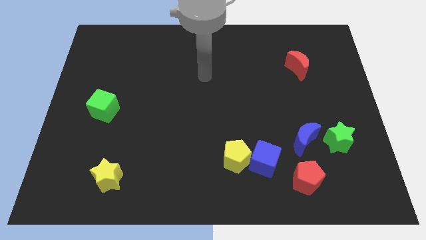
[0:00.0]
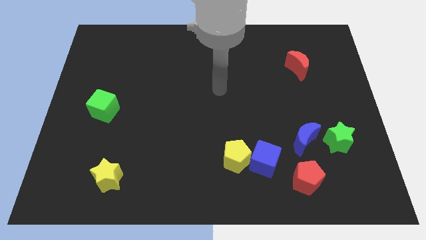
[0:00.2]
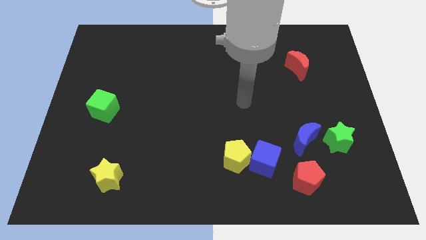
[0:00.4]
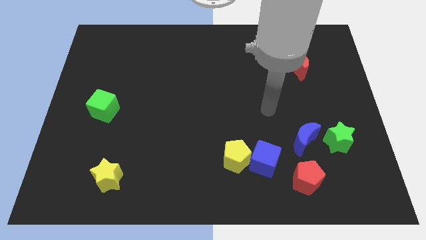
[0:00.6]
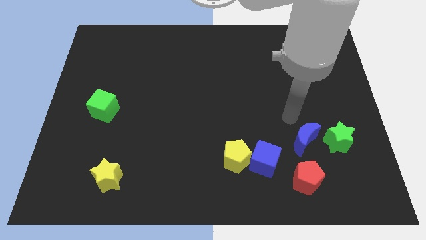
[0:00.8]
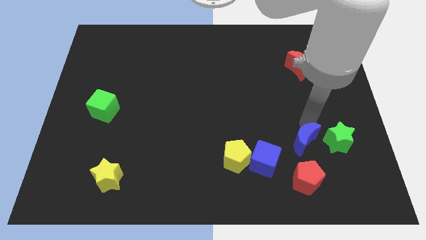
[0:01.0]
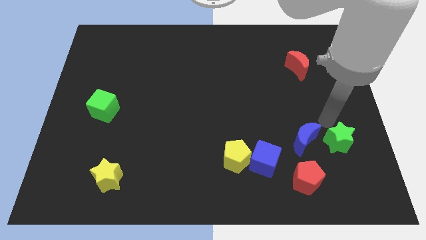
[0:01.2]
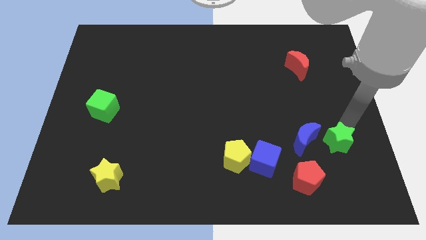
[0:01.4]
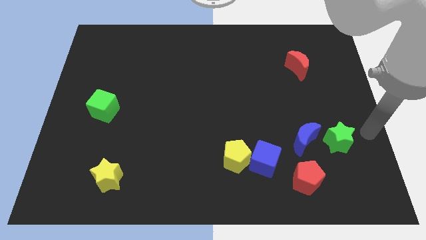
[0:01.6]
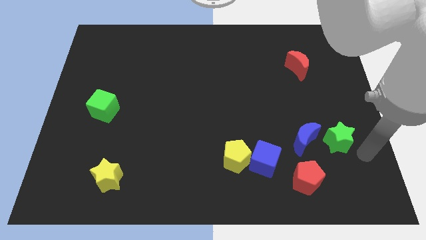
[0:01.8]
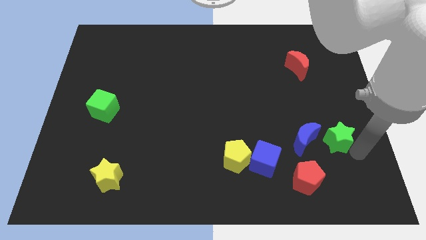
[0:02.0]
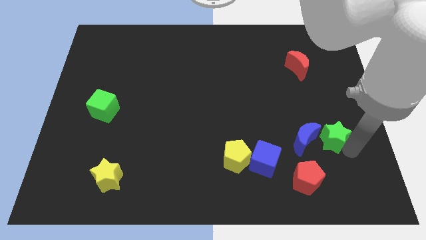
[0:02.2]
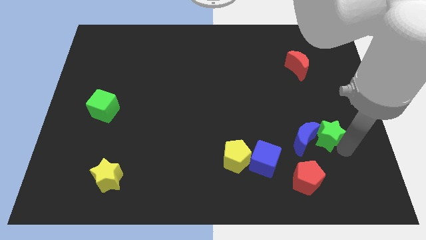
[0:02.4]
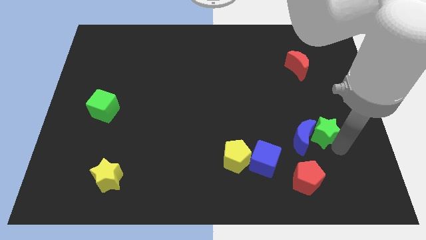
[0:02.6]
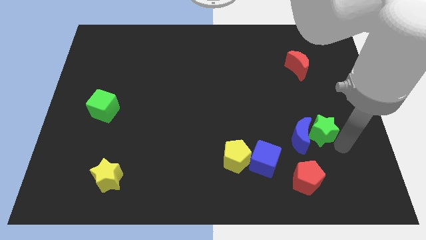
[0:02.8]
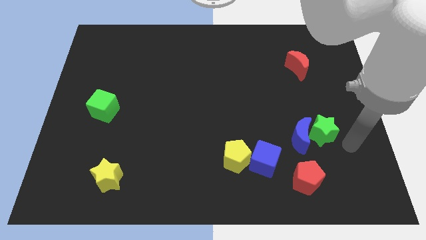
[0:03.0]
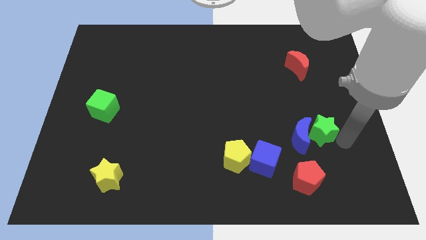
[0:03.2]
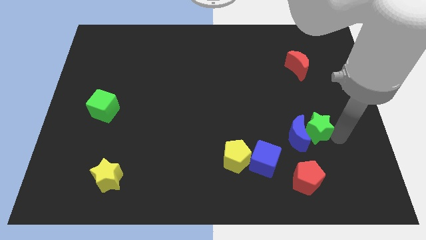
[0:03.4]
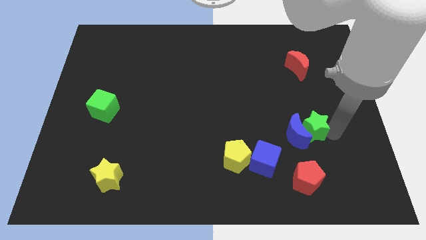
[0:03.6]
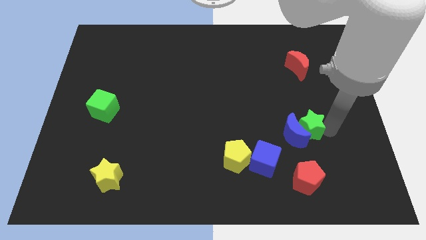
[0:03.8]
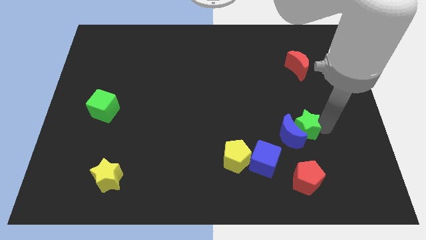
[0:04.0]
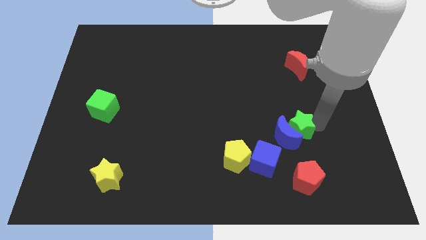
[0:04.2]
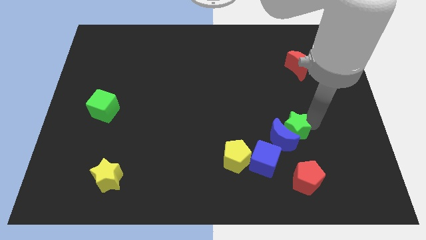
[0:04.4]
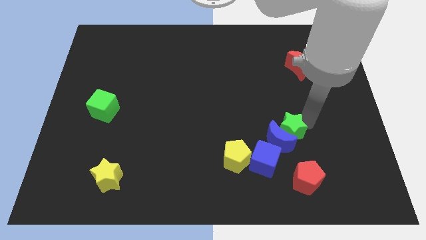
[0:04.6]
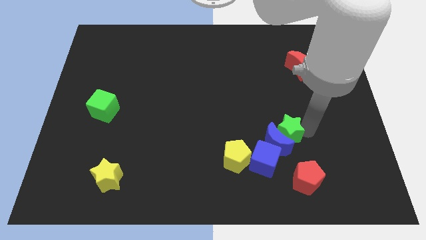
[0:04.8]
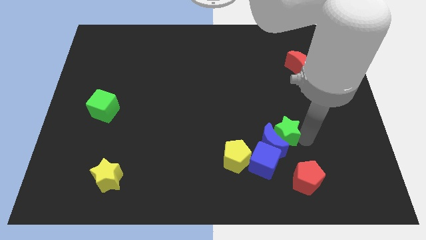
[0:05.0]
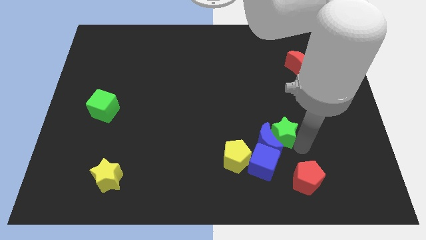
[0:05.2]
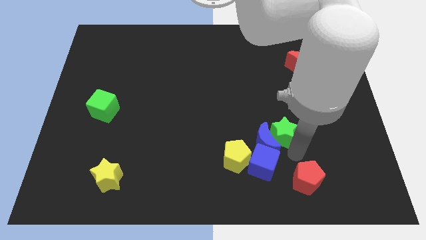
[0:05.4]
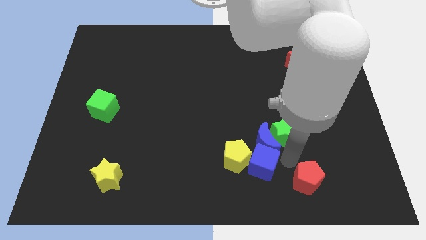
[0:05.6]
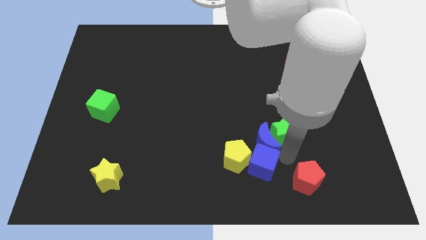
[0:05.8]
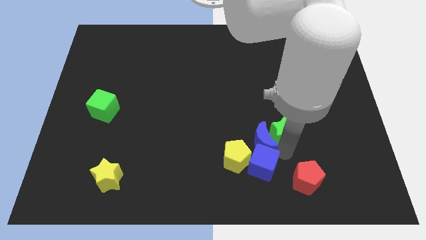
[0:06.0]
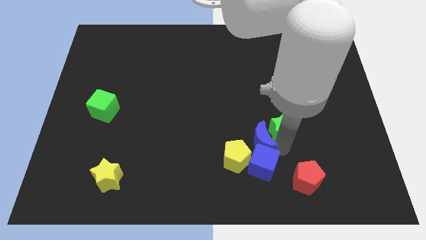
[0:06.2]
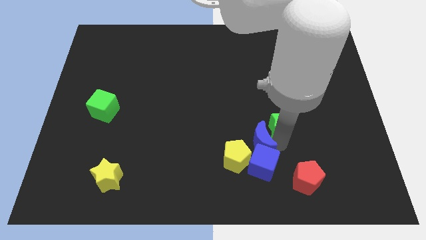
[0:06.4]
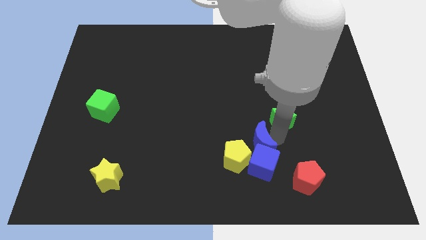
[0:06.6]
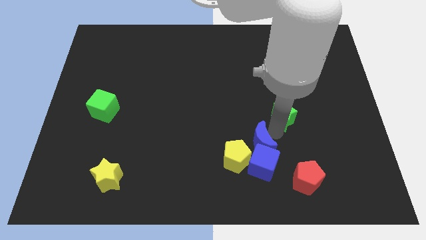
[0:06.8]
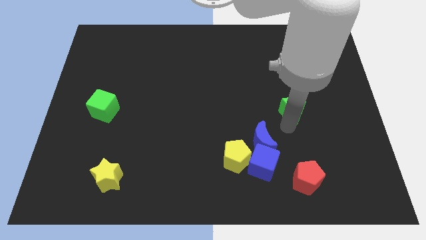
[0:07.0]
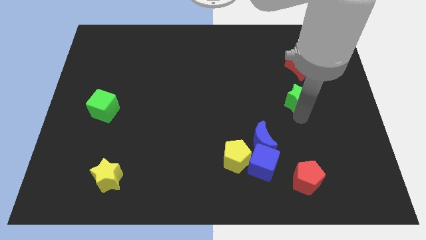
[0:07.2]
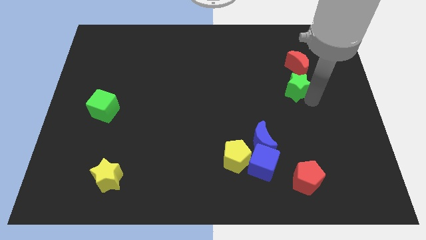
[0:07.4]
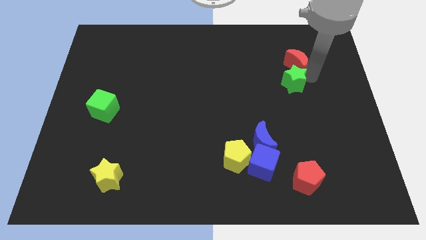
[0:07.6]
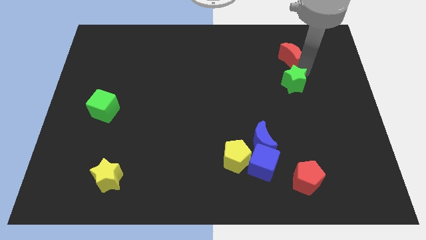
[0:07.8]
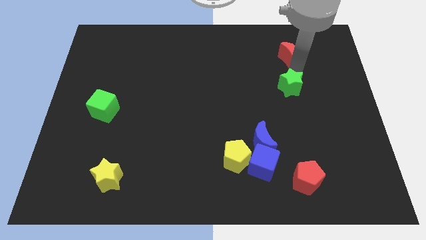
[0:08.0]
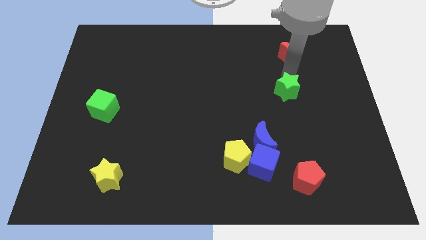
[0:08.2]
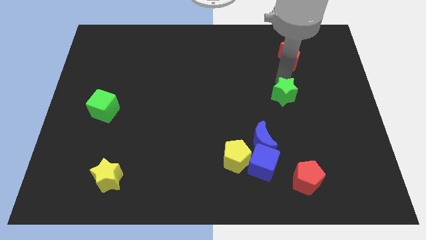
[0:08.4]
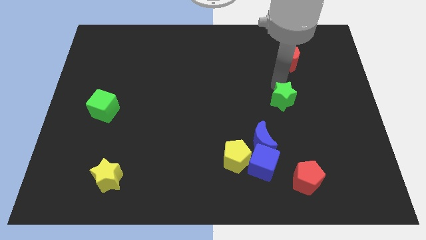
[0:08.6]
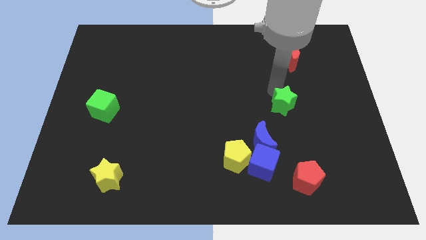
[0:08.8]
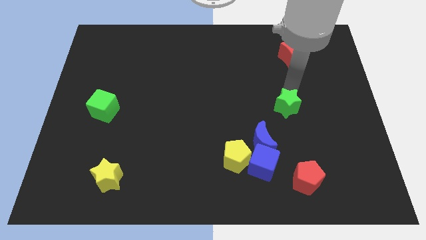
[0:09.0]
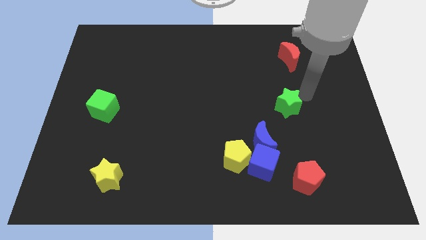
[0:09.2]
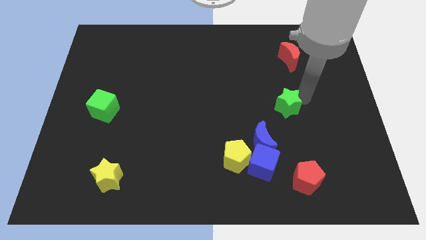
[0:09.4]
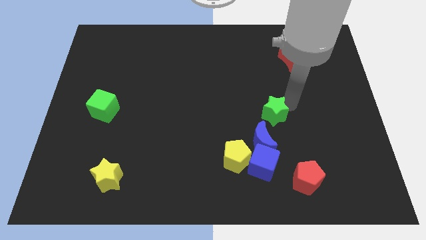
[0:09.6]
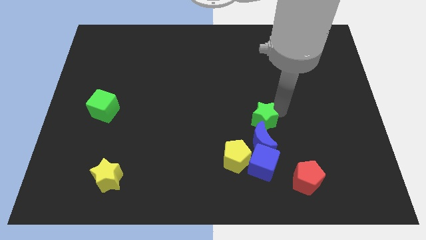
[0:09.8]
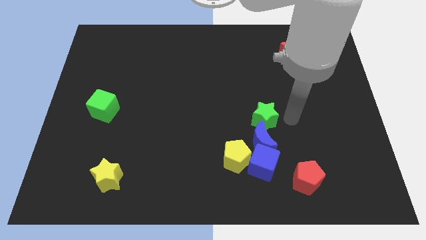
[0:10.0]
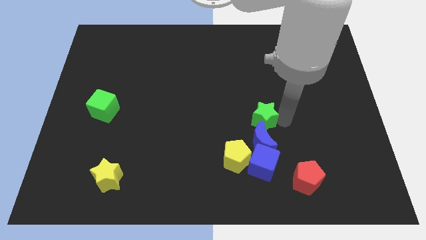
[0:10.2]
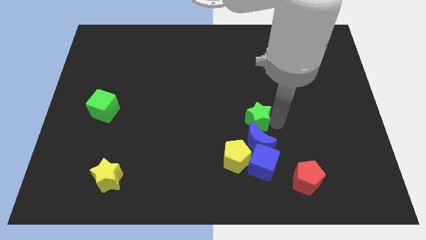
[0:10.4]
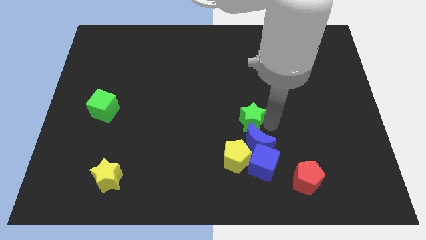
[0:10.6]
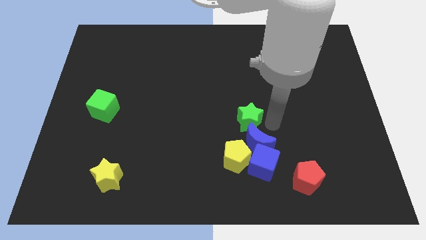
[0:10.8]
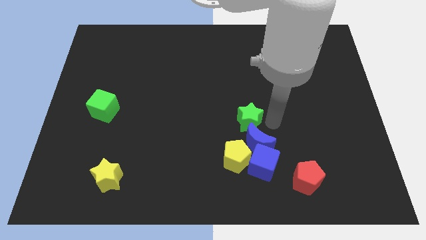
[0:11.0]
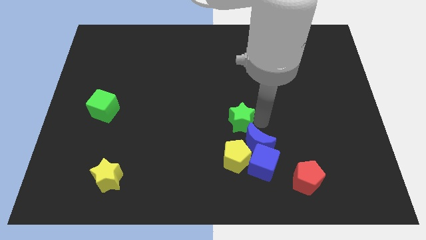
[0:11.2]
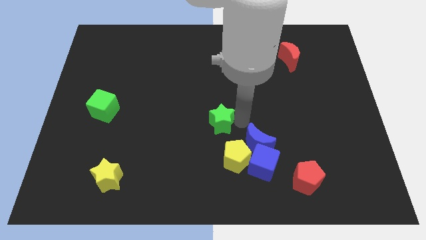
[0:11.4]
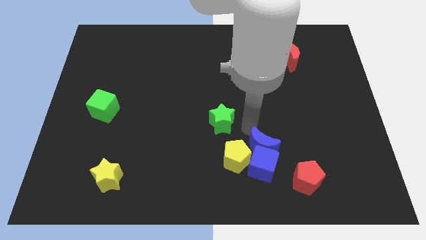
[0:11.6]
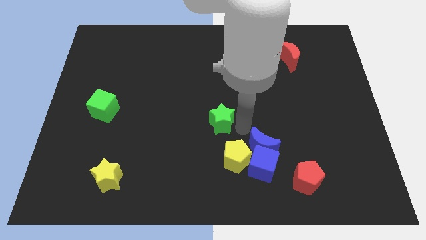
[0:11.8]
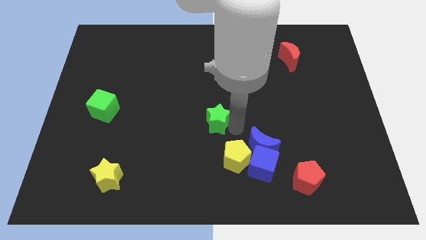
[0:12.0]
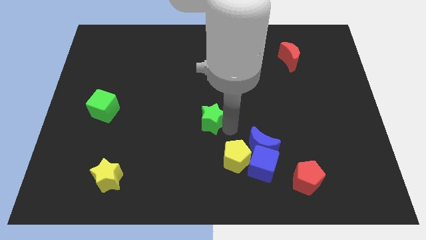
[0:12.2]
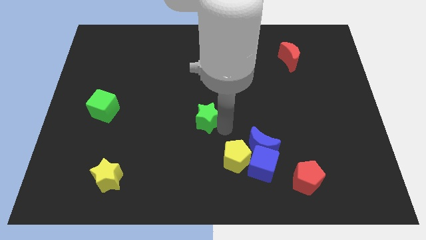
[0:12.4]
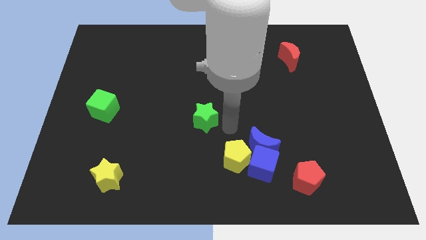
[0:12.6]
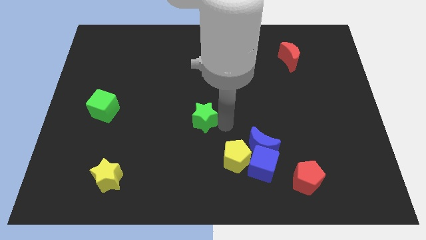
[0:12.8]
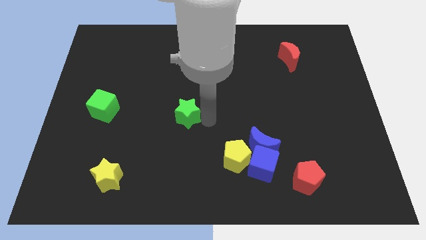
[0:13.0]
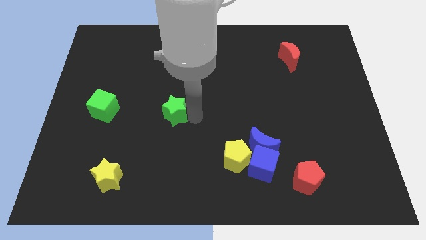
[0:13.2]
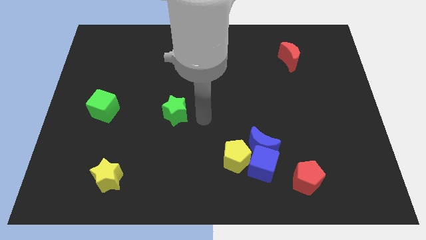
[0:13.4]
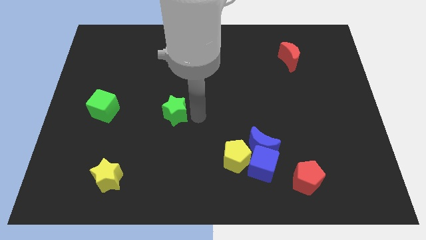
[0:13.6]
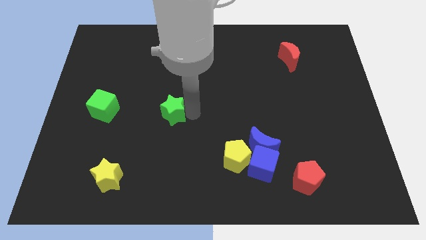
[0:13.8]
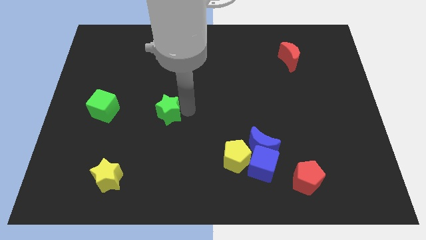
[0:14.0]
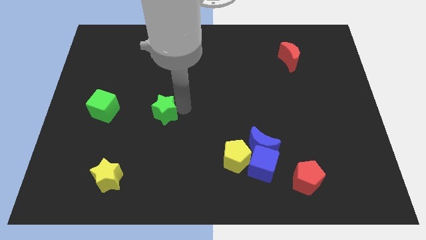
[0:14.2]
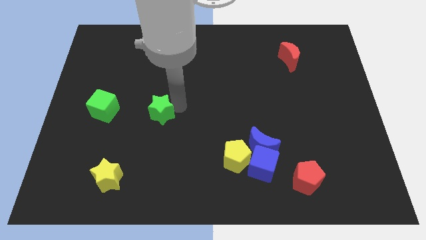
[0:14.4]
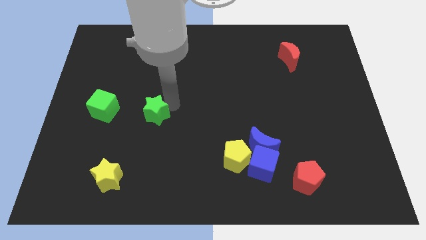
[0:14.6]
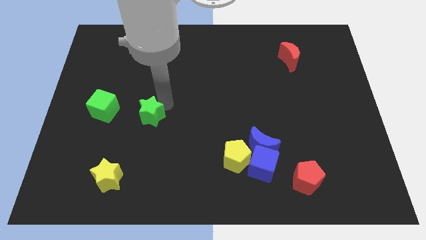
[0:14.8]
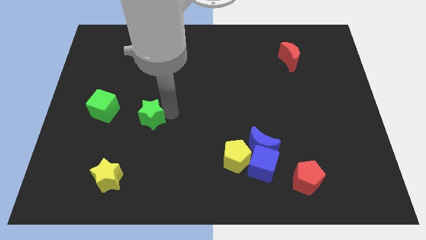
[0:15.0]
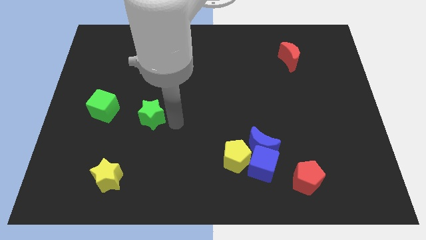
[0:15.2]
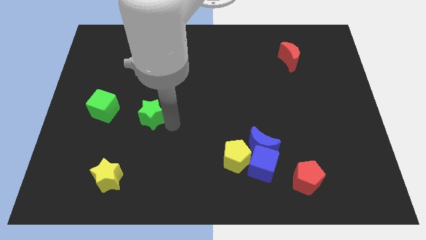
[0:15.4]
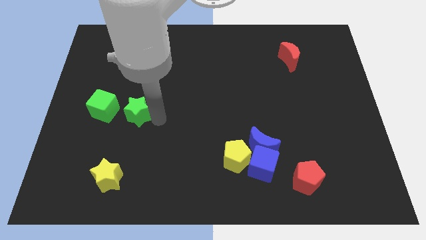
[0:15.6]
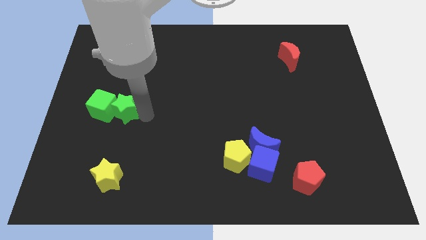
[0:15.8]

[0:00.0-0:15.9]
move the green star towards the green cube
